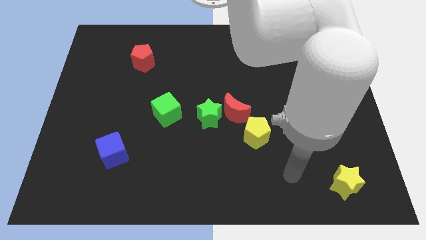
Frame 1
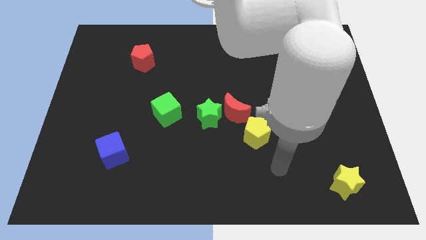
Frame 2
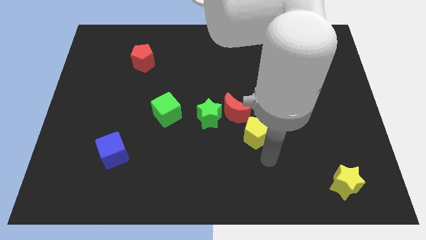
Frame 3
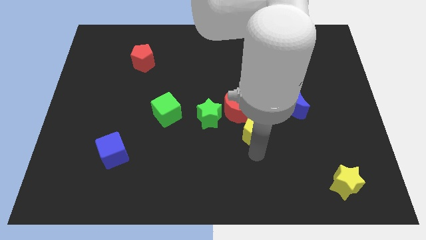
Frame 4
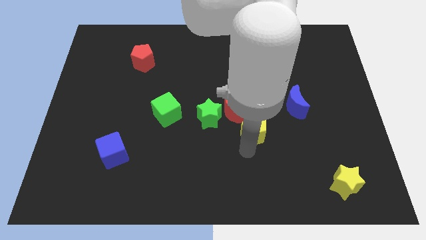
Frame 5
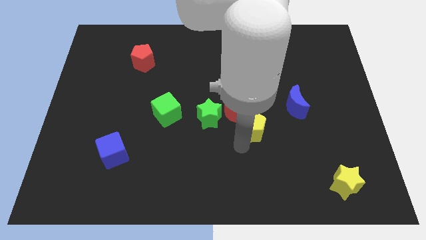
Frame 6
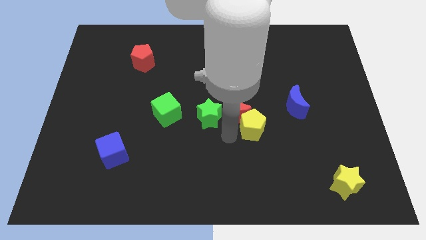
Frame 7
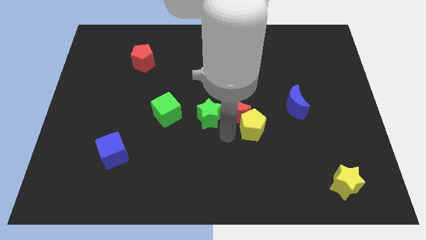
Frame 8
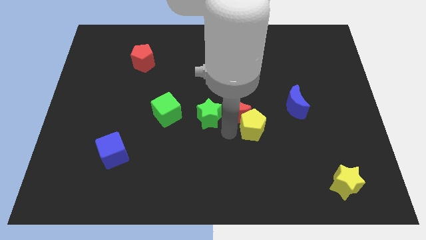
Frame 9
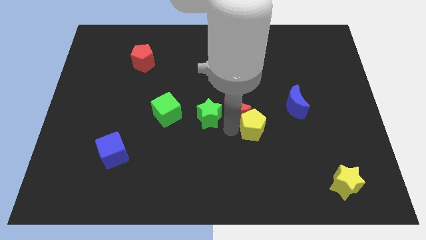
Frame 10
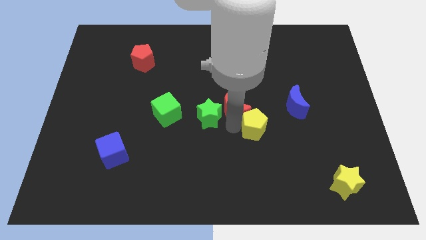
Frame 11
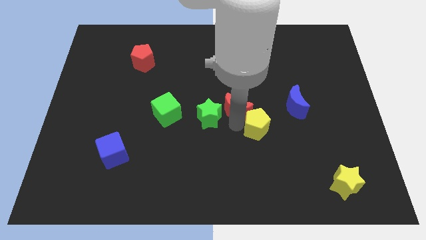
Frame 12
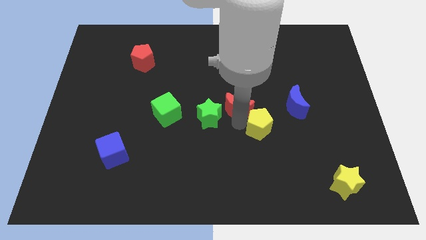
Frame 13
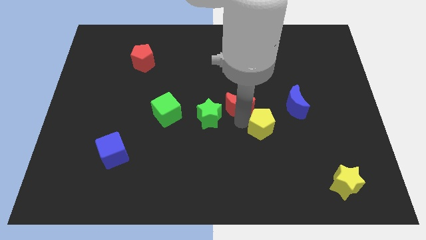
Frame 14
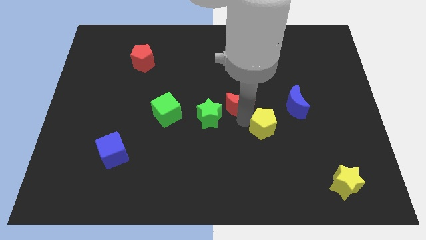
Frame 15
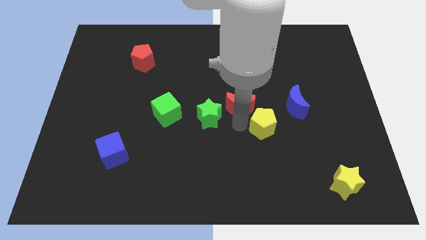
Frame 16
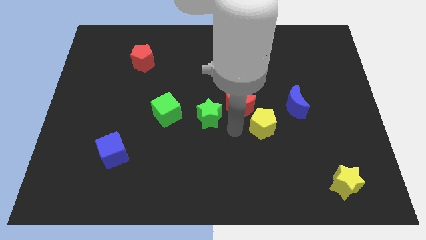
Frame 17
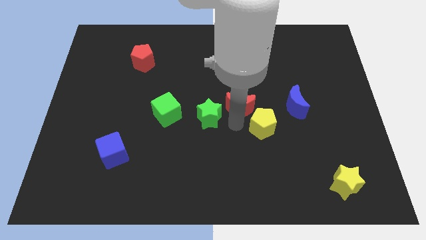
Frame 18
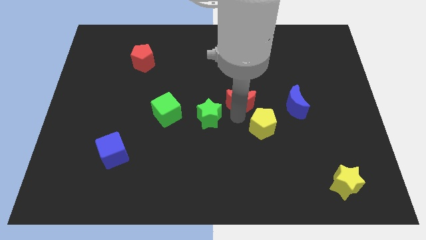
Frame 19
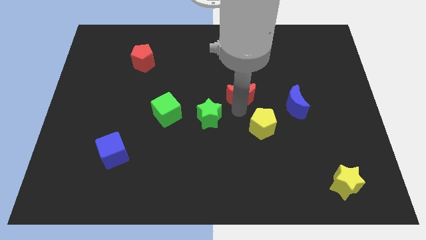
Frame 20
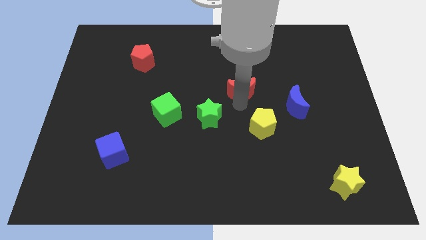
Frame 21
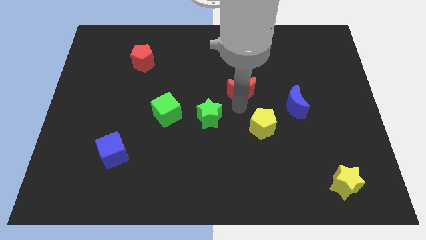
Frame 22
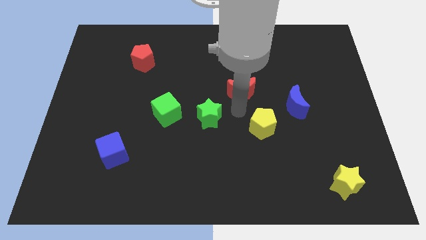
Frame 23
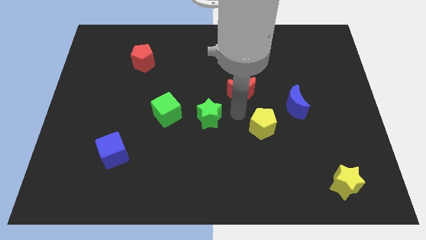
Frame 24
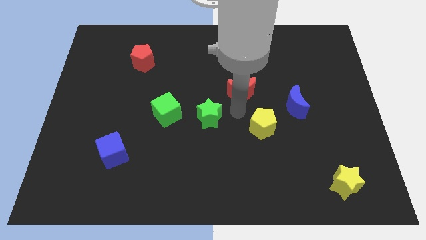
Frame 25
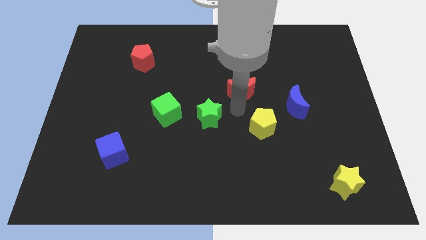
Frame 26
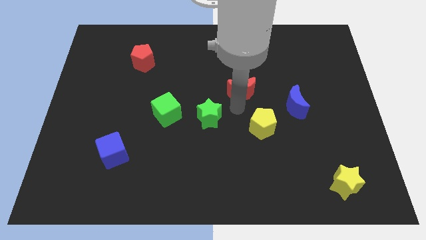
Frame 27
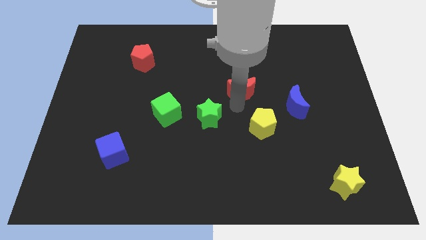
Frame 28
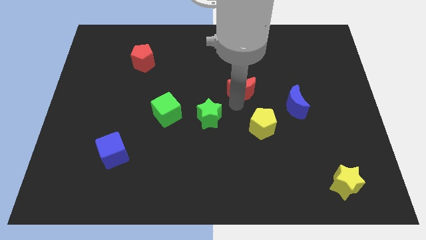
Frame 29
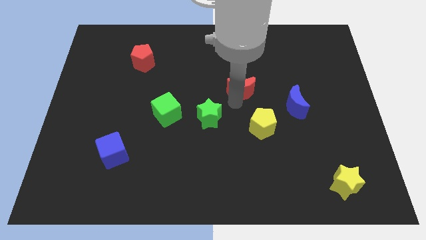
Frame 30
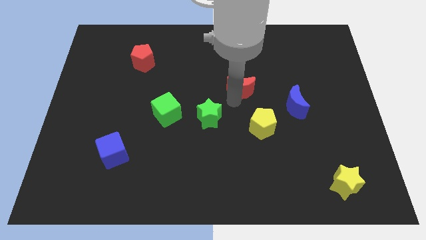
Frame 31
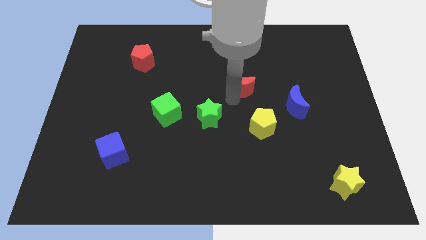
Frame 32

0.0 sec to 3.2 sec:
pull the red moon apart from the green star and yellow pentagon

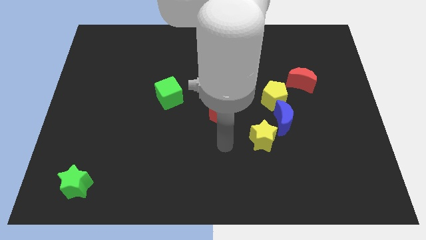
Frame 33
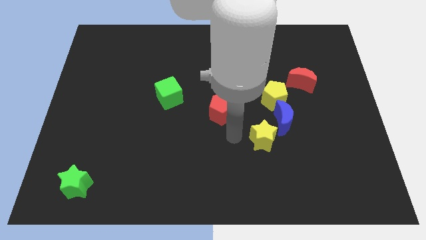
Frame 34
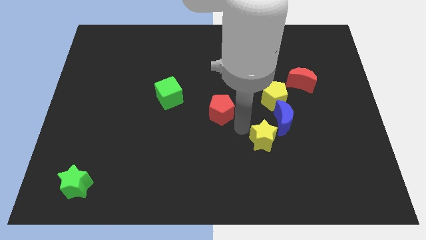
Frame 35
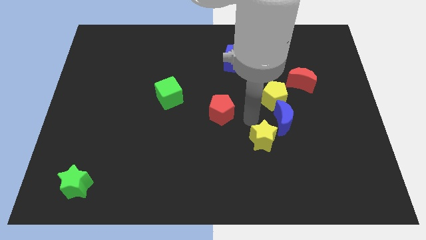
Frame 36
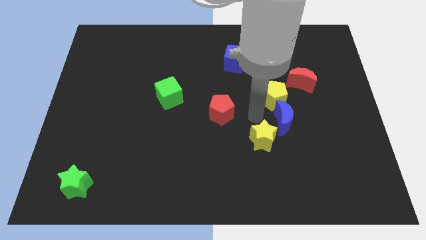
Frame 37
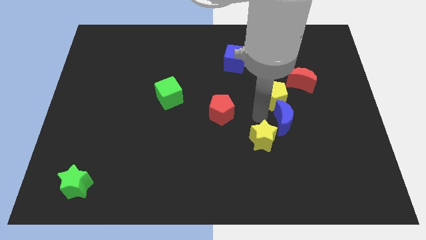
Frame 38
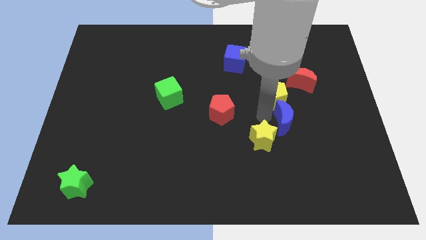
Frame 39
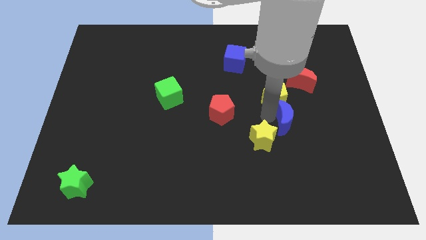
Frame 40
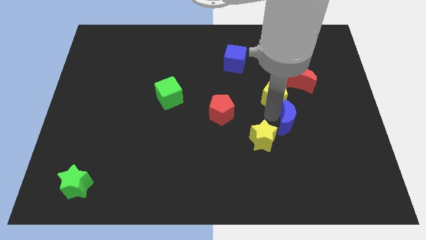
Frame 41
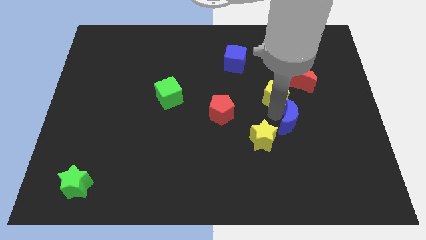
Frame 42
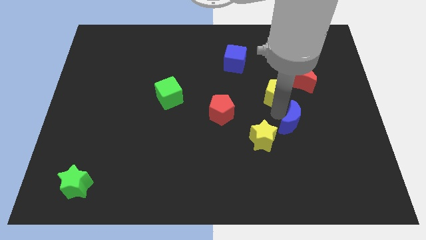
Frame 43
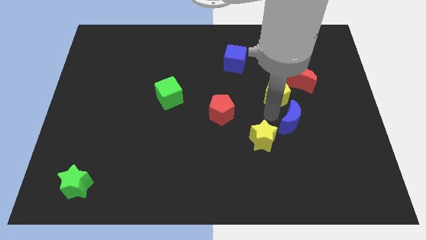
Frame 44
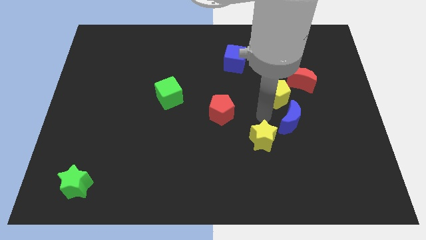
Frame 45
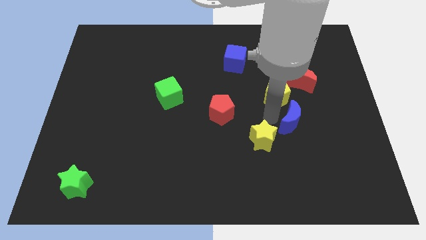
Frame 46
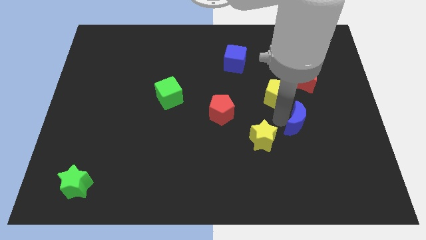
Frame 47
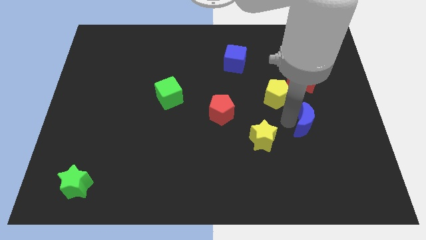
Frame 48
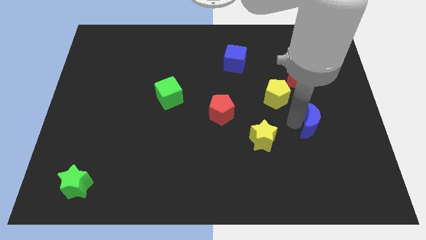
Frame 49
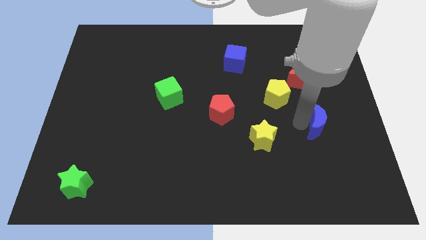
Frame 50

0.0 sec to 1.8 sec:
pull the blue moon apart from the yellow pentagon and yellow star

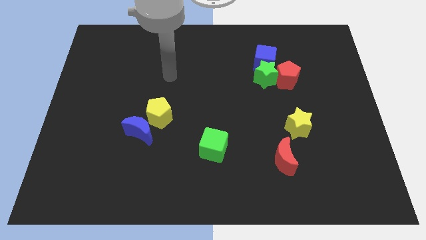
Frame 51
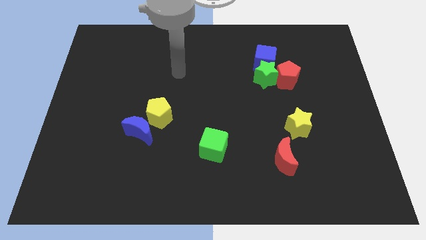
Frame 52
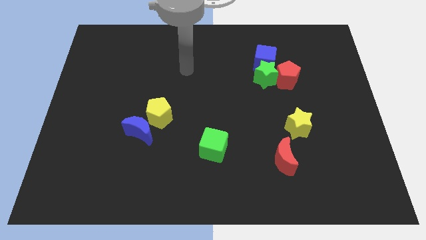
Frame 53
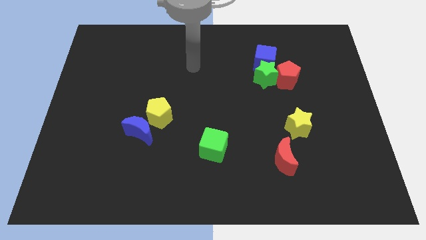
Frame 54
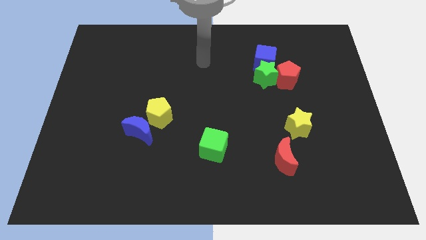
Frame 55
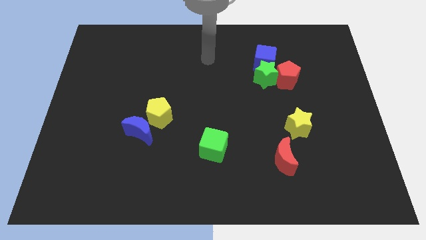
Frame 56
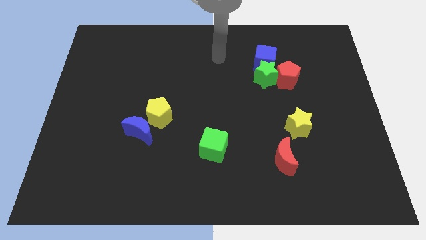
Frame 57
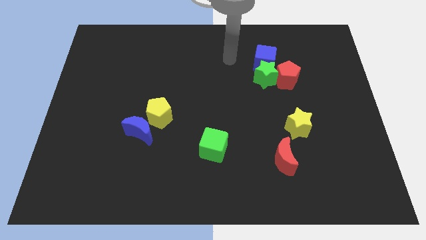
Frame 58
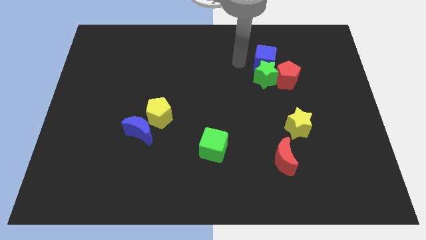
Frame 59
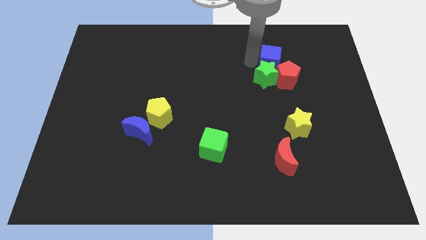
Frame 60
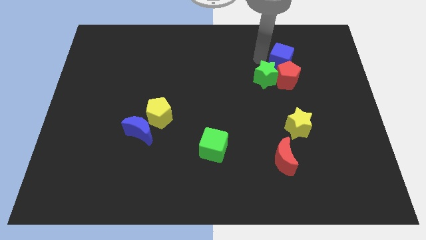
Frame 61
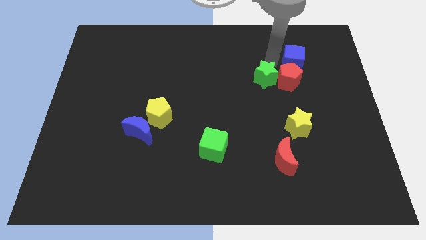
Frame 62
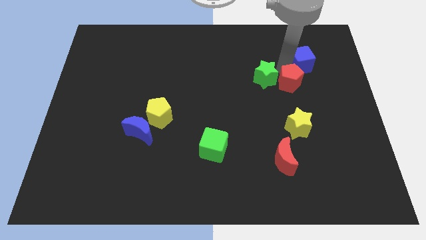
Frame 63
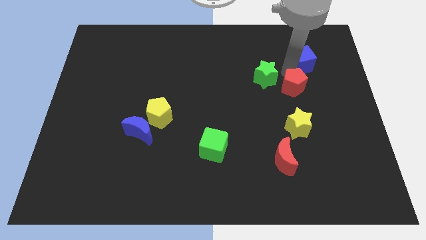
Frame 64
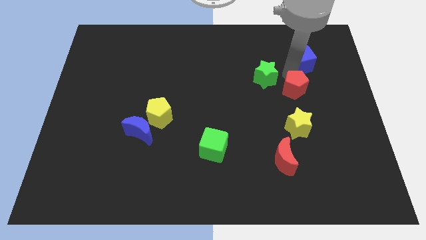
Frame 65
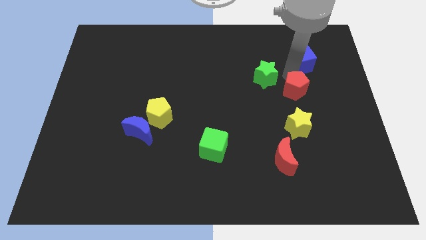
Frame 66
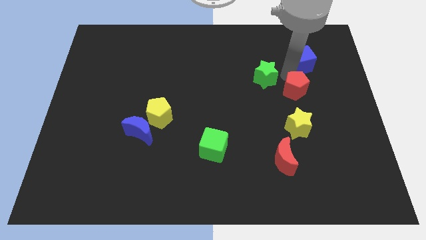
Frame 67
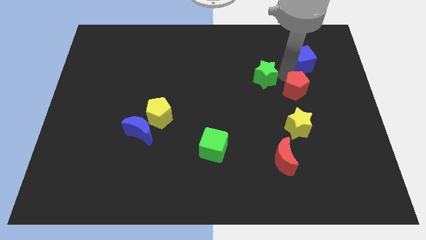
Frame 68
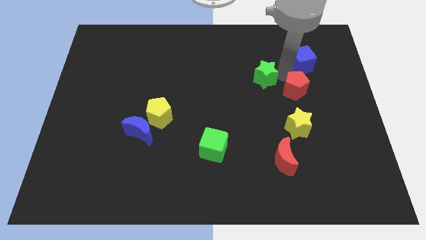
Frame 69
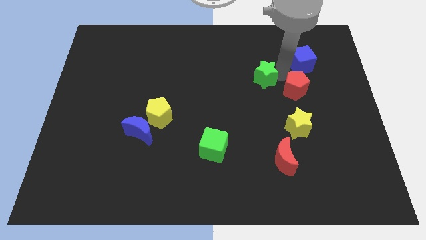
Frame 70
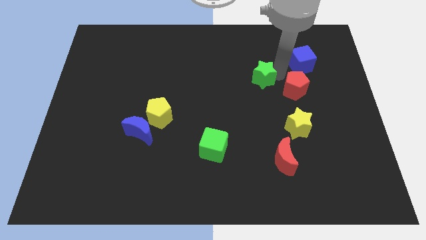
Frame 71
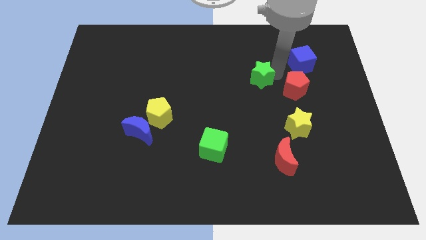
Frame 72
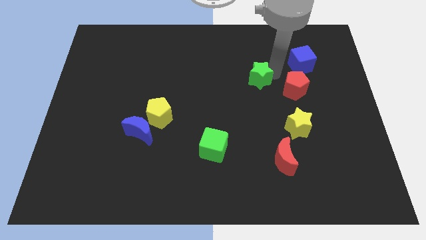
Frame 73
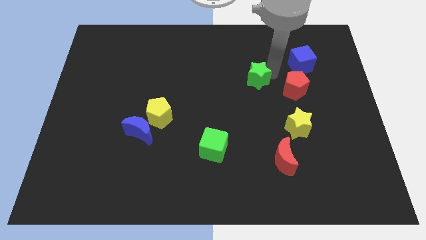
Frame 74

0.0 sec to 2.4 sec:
pull the green star apart from the red pentagon and blue cube

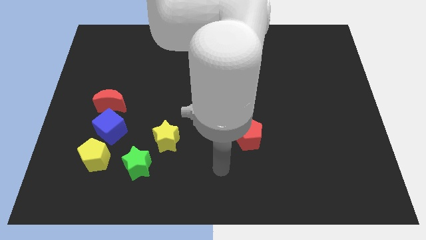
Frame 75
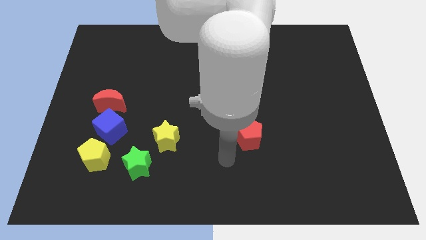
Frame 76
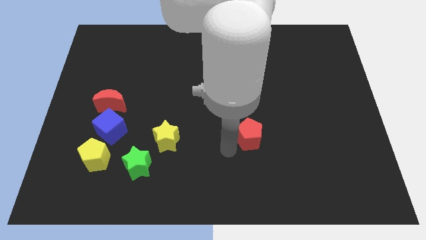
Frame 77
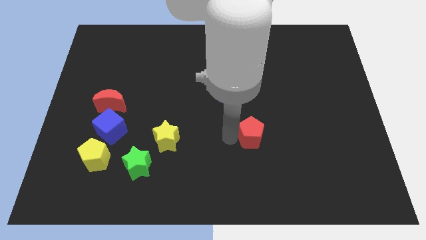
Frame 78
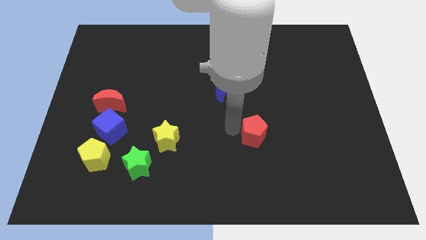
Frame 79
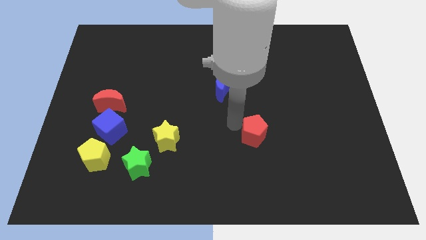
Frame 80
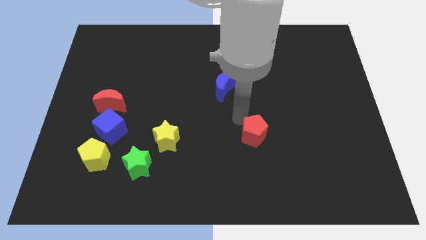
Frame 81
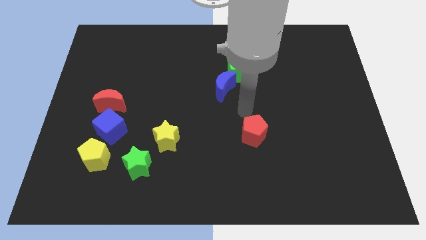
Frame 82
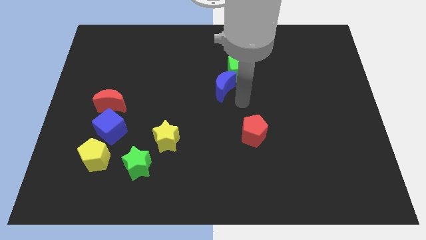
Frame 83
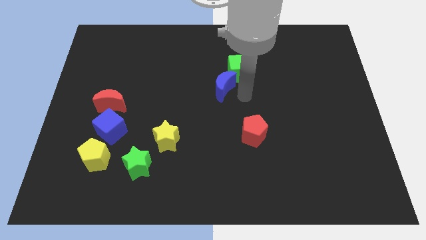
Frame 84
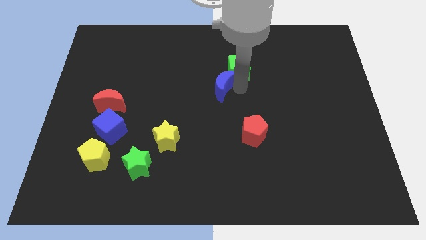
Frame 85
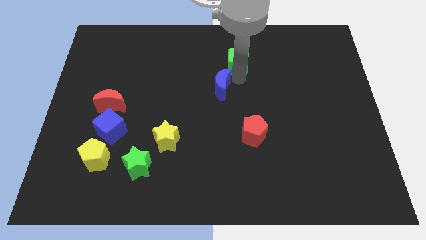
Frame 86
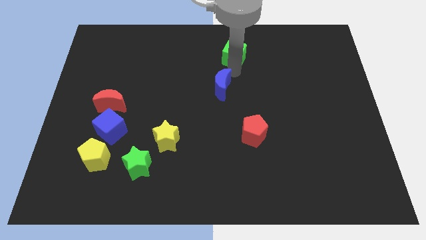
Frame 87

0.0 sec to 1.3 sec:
pull the blue moon apart from the green cube

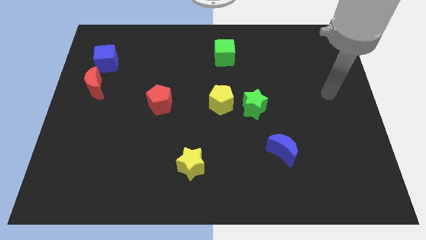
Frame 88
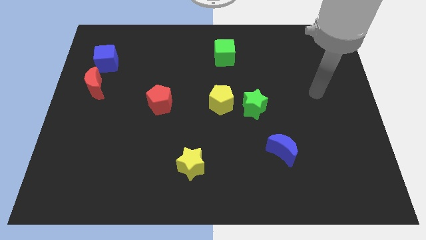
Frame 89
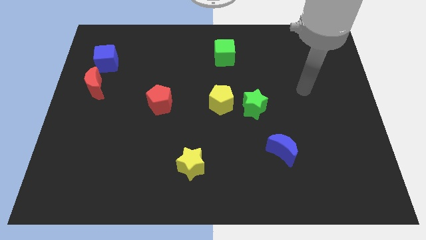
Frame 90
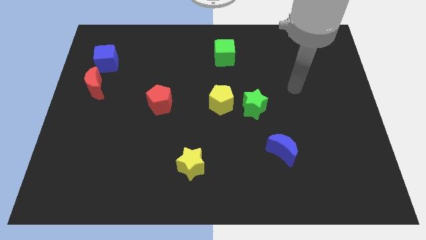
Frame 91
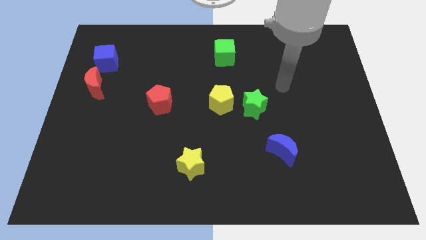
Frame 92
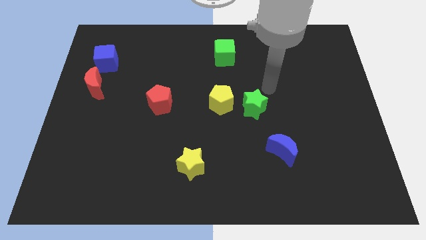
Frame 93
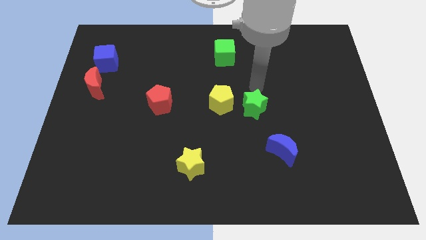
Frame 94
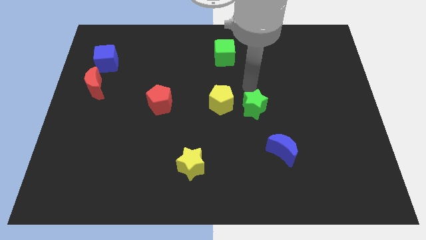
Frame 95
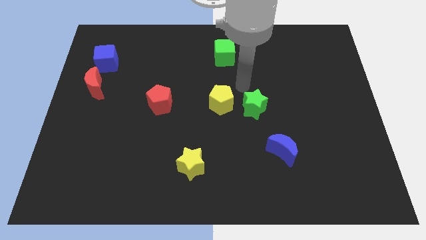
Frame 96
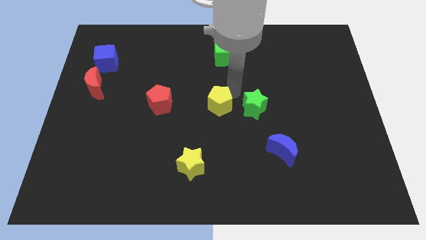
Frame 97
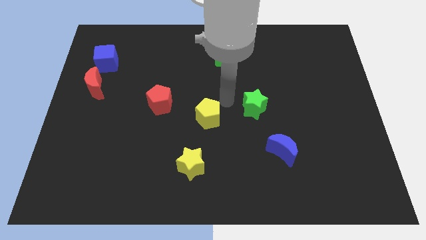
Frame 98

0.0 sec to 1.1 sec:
separate the green star from the yellow pentagon
